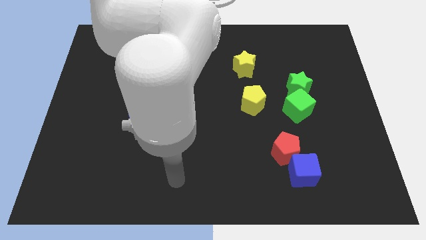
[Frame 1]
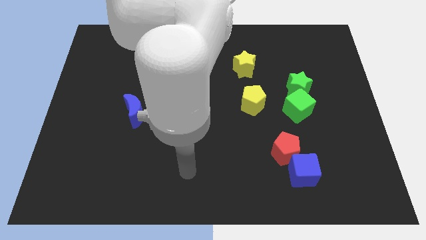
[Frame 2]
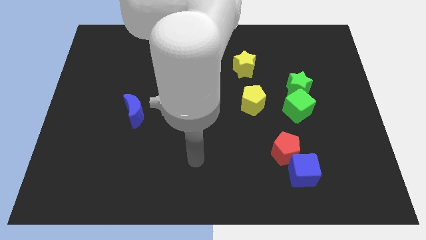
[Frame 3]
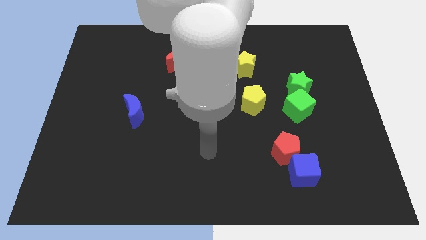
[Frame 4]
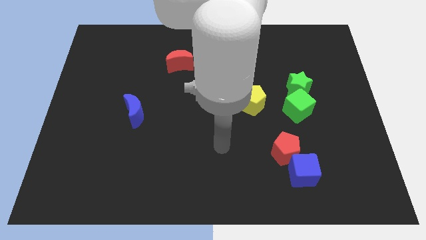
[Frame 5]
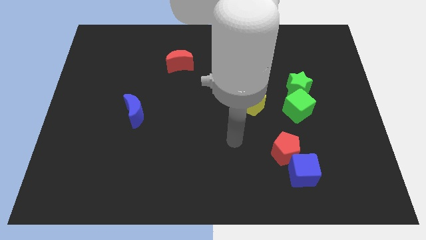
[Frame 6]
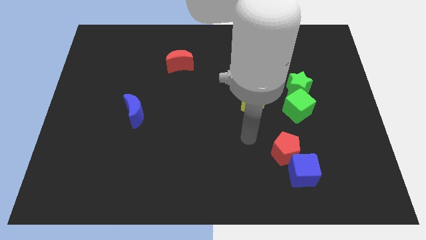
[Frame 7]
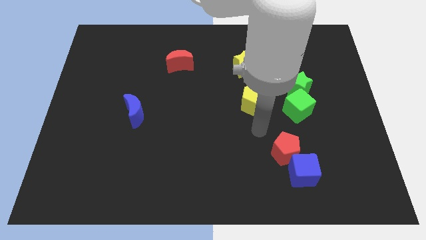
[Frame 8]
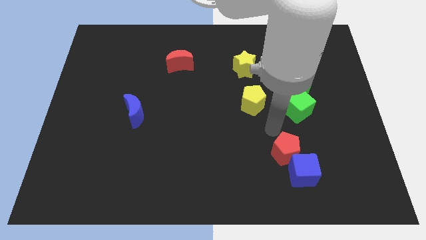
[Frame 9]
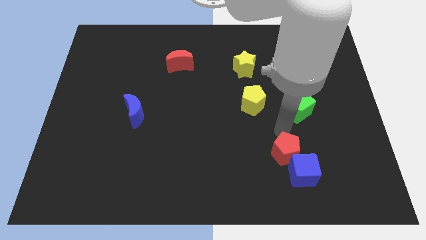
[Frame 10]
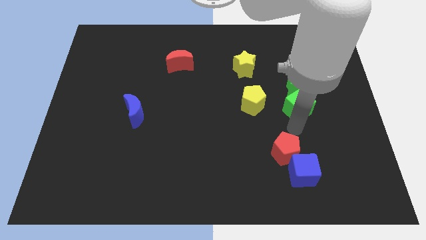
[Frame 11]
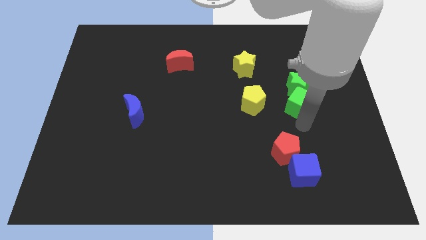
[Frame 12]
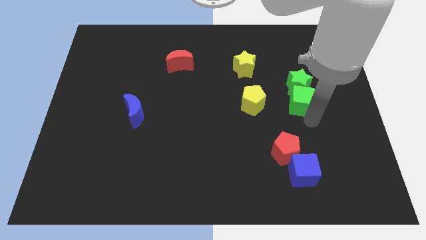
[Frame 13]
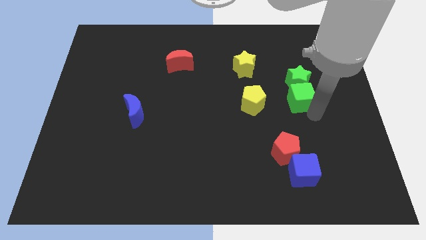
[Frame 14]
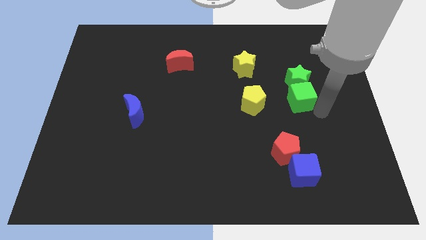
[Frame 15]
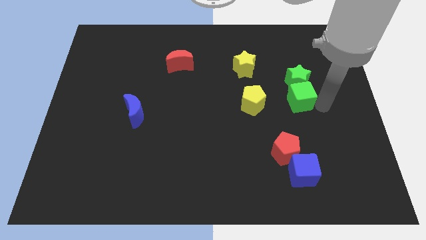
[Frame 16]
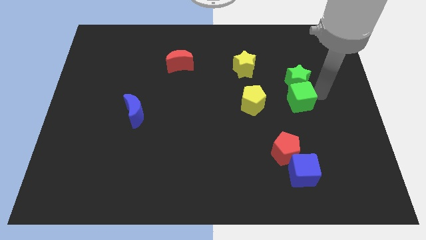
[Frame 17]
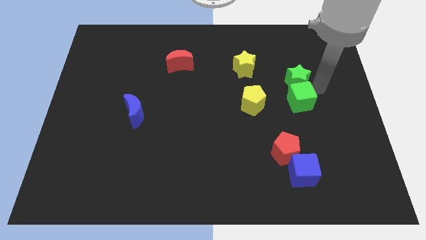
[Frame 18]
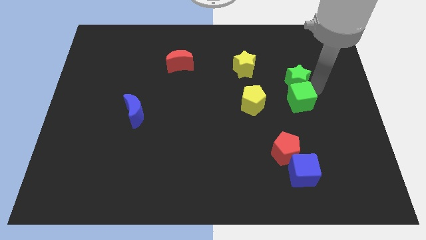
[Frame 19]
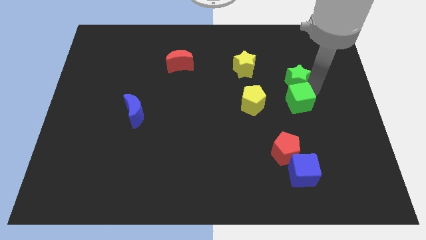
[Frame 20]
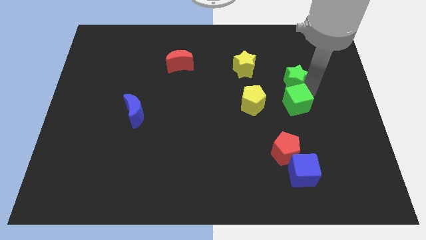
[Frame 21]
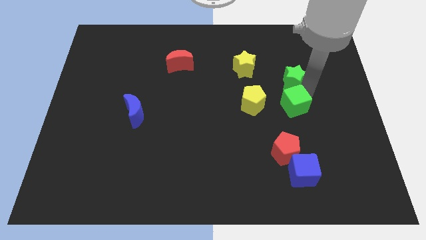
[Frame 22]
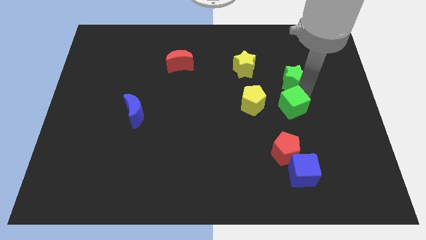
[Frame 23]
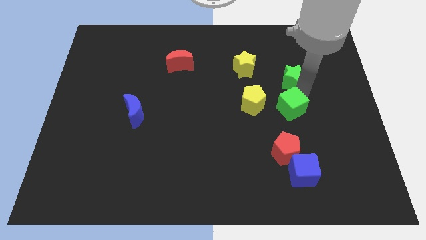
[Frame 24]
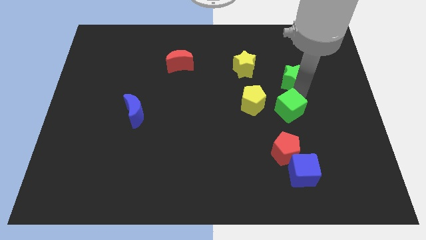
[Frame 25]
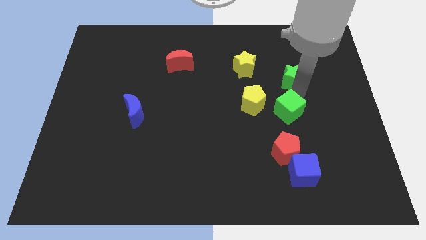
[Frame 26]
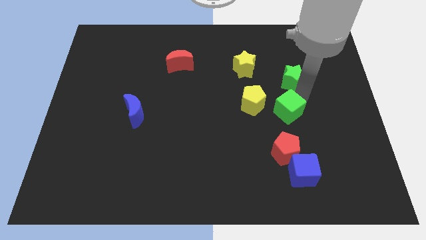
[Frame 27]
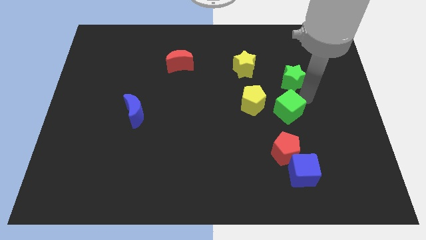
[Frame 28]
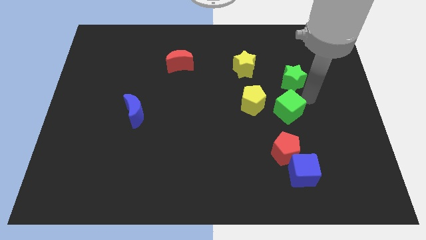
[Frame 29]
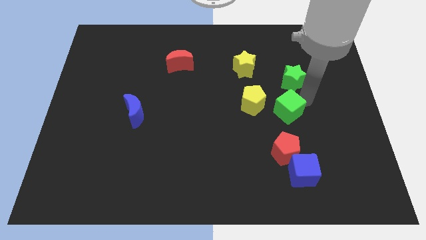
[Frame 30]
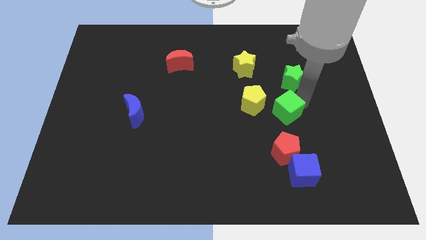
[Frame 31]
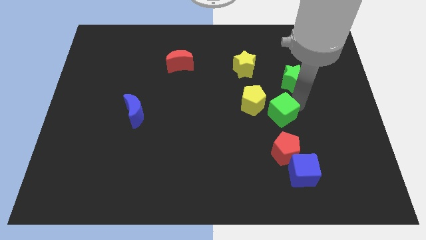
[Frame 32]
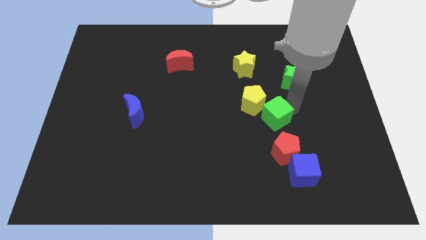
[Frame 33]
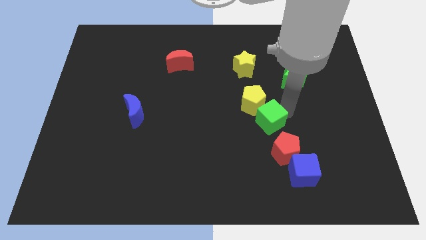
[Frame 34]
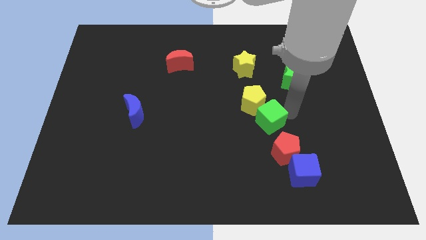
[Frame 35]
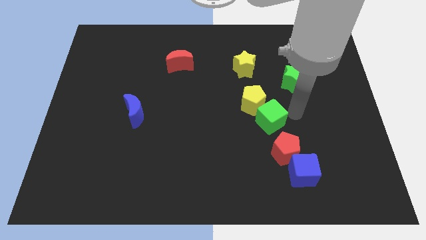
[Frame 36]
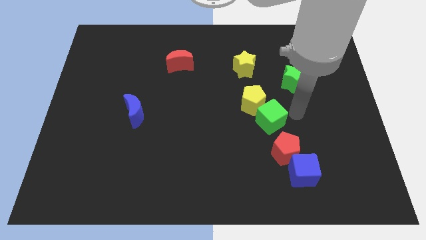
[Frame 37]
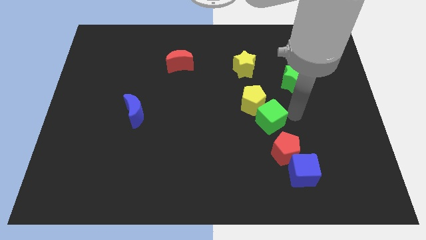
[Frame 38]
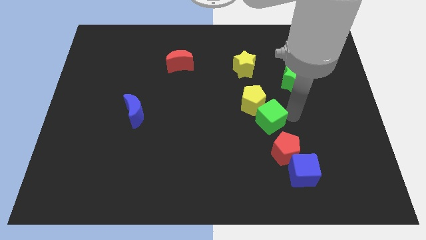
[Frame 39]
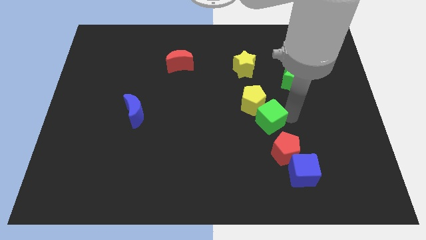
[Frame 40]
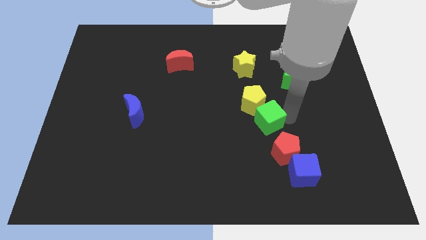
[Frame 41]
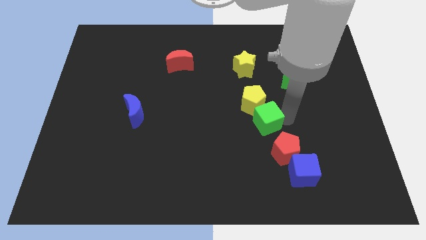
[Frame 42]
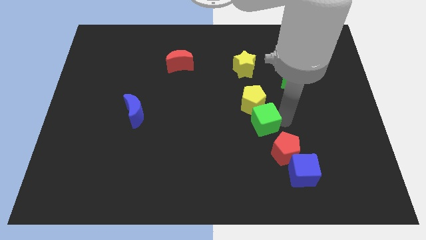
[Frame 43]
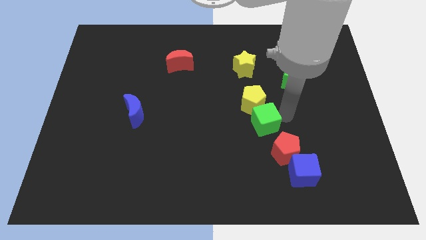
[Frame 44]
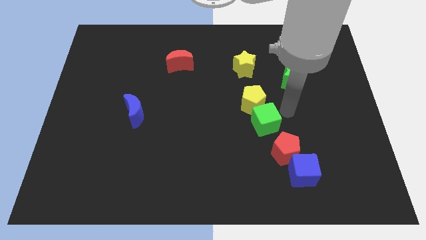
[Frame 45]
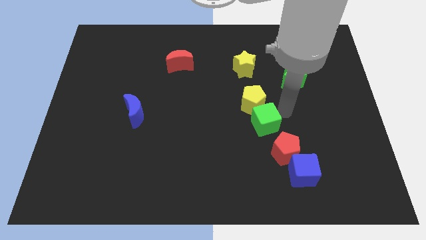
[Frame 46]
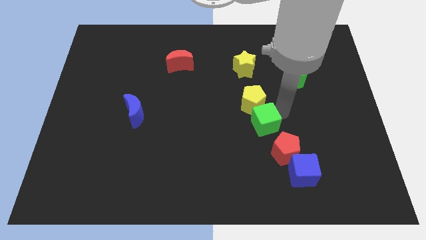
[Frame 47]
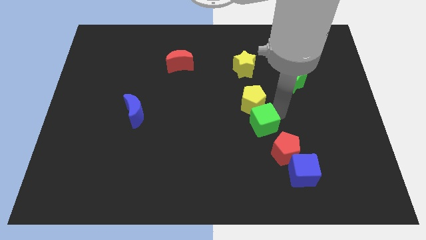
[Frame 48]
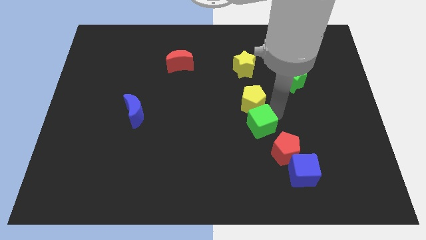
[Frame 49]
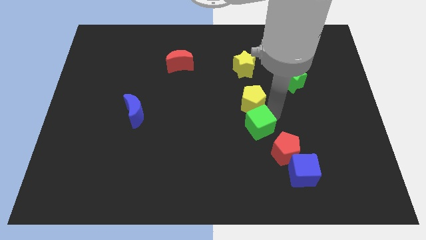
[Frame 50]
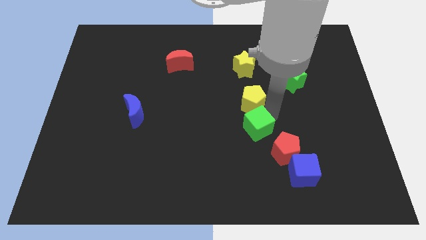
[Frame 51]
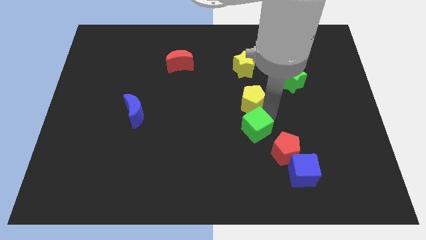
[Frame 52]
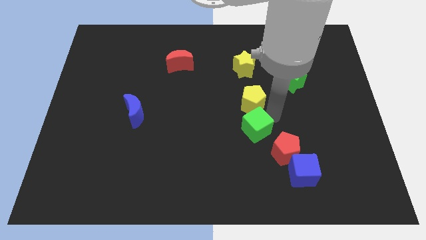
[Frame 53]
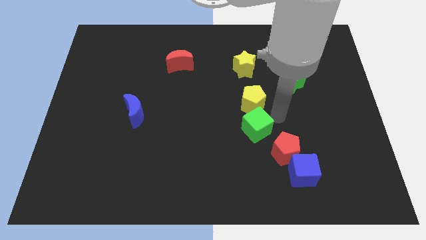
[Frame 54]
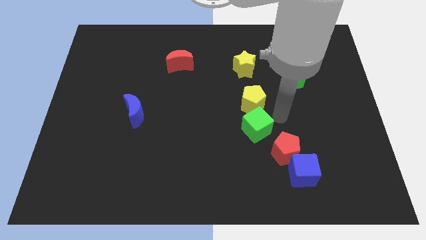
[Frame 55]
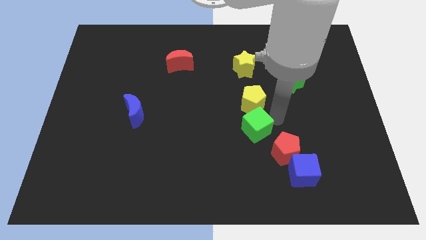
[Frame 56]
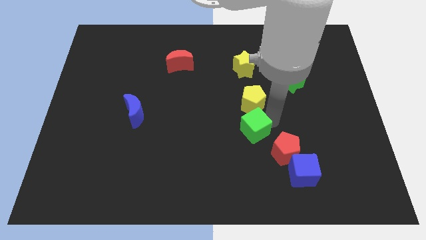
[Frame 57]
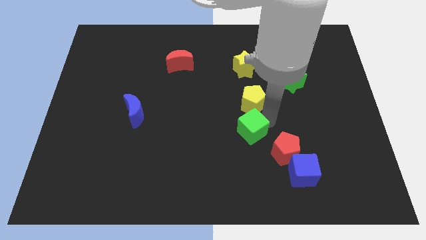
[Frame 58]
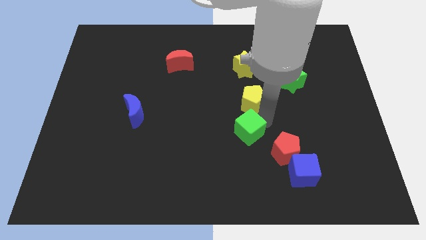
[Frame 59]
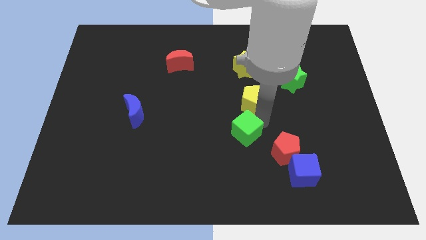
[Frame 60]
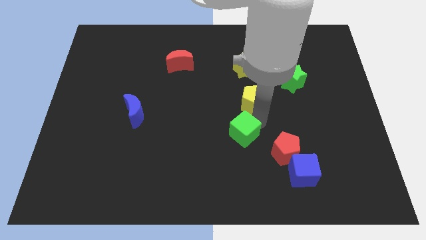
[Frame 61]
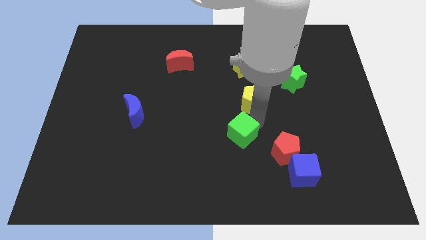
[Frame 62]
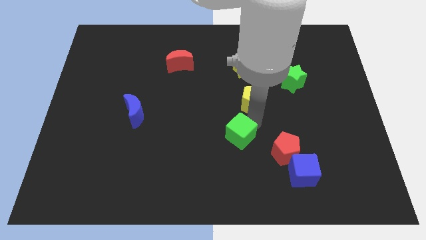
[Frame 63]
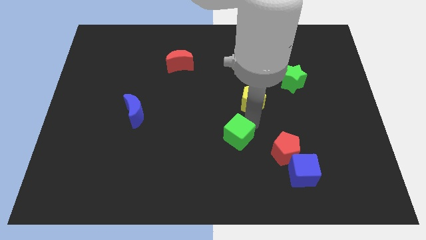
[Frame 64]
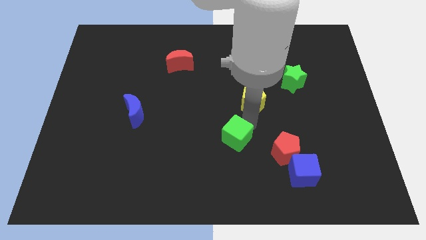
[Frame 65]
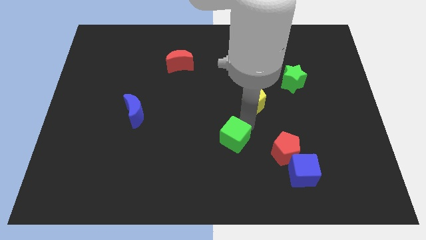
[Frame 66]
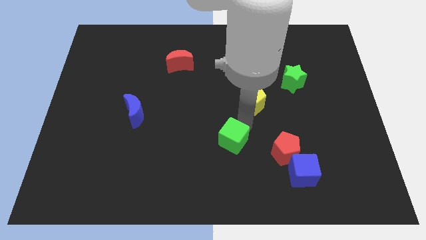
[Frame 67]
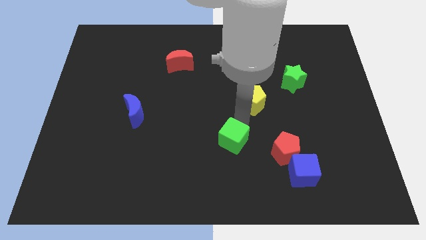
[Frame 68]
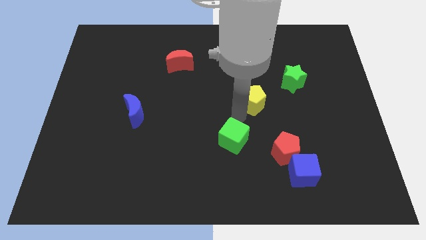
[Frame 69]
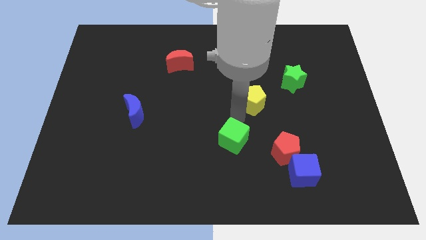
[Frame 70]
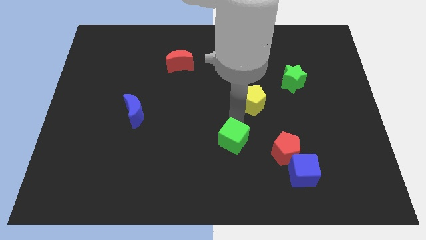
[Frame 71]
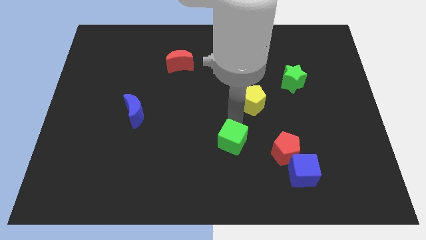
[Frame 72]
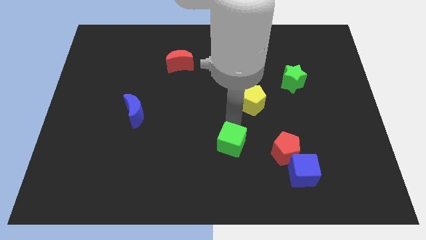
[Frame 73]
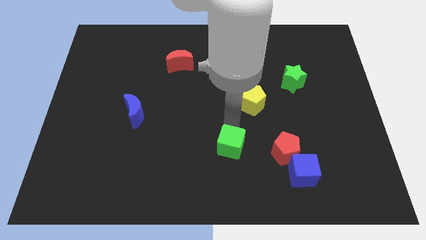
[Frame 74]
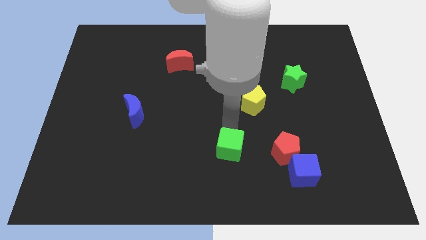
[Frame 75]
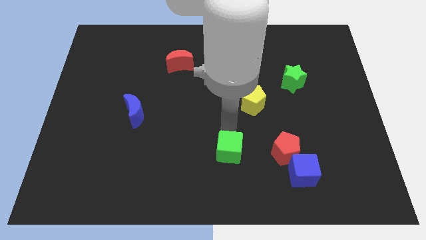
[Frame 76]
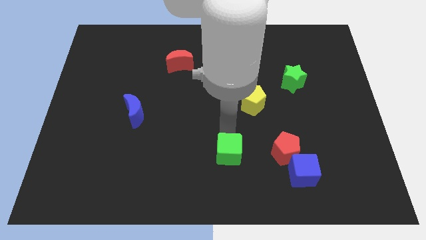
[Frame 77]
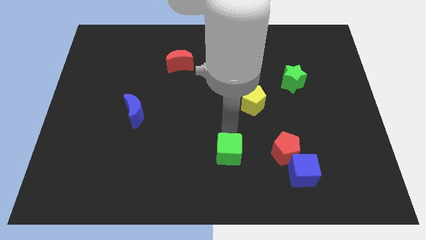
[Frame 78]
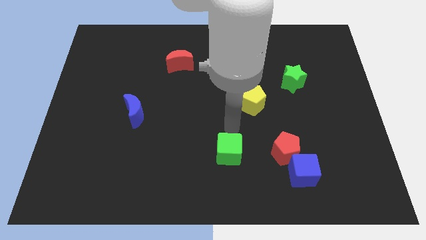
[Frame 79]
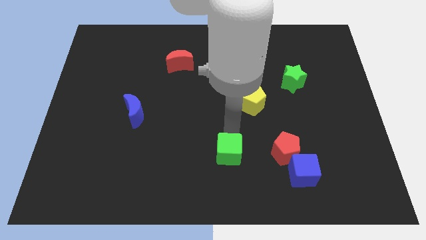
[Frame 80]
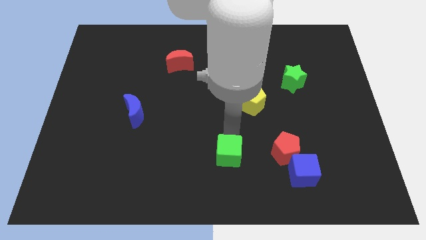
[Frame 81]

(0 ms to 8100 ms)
push the green cube to the bottom side
